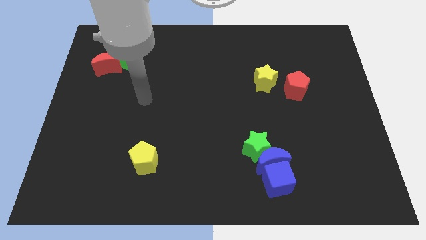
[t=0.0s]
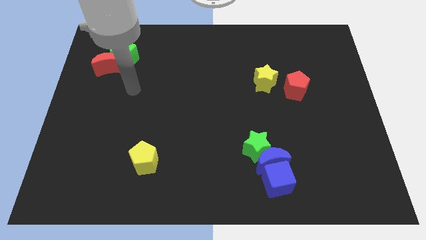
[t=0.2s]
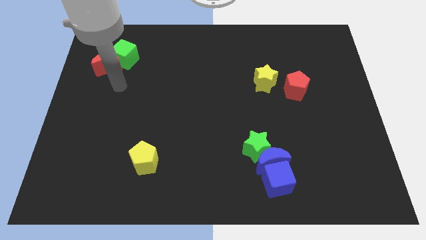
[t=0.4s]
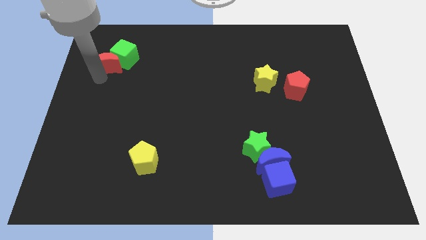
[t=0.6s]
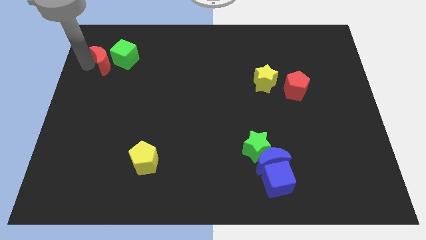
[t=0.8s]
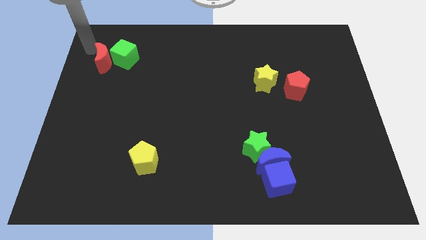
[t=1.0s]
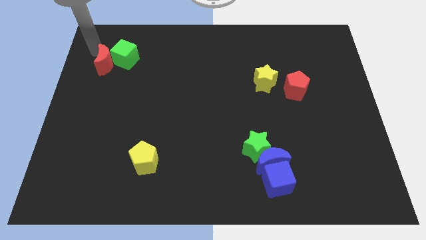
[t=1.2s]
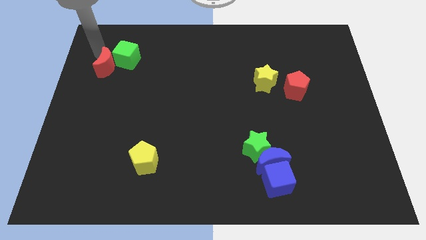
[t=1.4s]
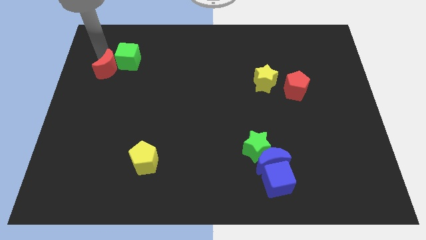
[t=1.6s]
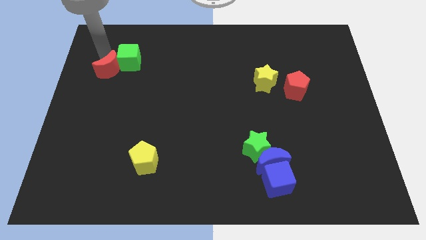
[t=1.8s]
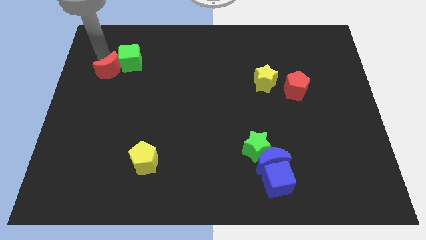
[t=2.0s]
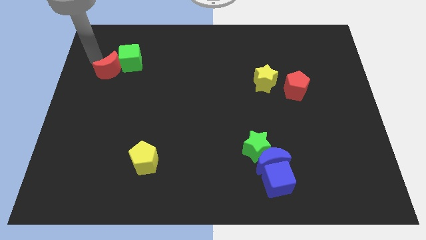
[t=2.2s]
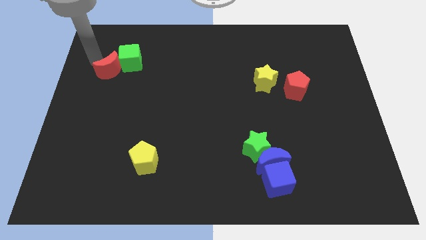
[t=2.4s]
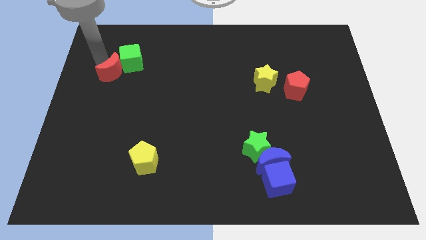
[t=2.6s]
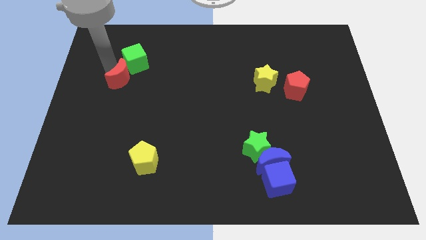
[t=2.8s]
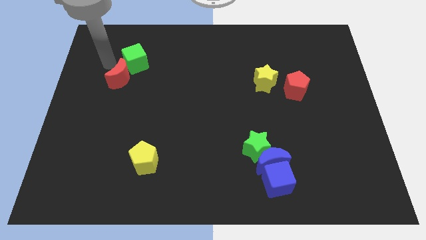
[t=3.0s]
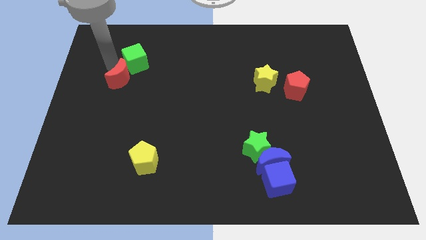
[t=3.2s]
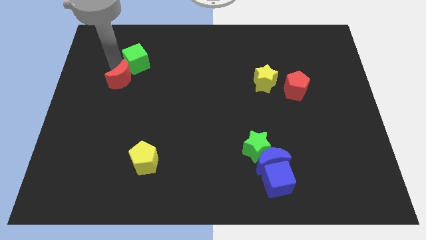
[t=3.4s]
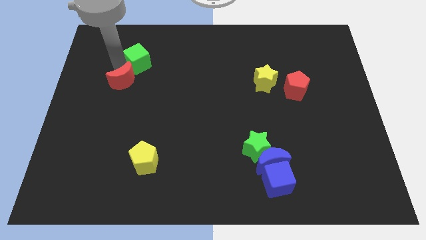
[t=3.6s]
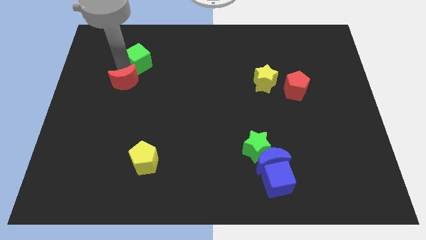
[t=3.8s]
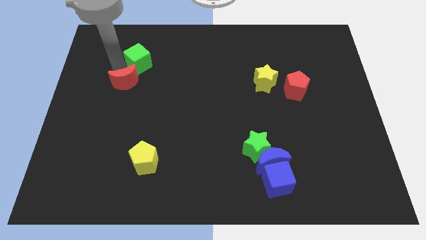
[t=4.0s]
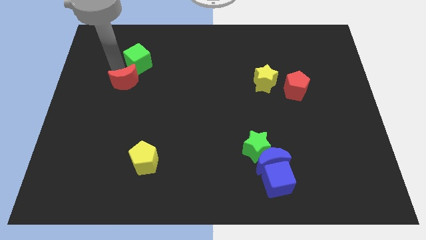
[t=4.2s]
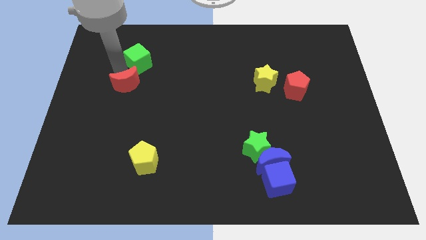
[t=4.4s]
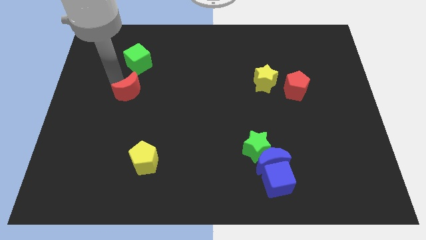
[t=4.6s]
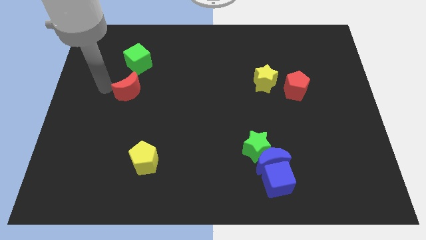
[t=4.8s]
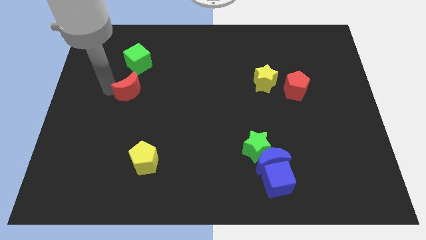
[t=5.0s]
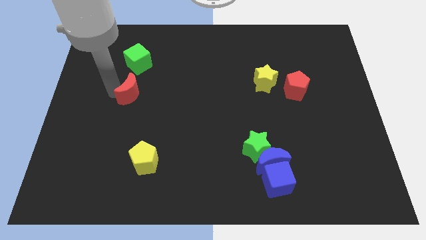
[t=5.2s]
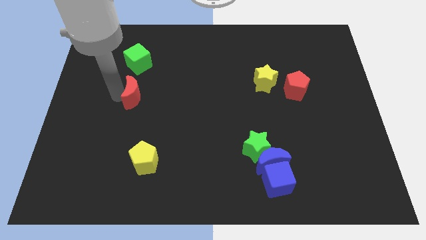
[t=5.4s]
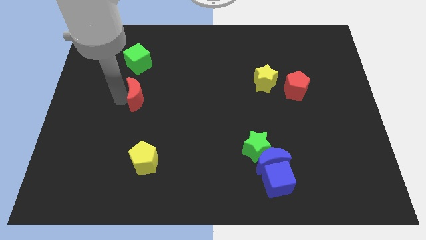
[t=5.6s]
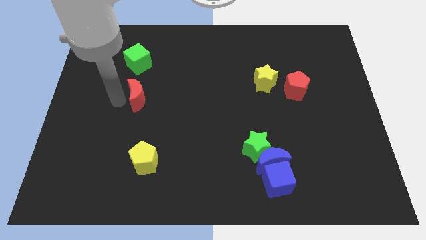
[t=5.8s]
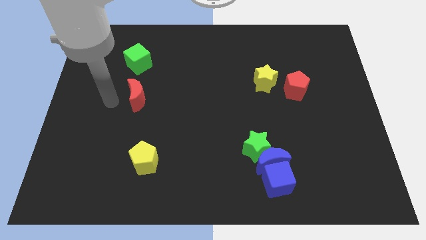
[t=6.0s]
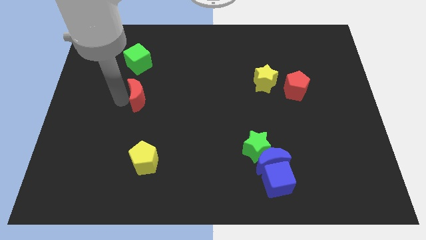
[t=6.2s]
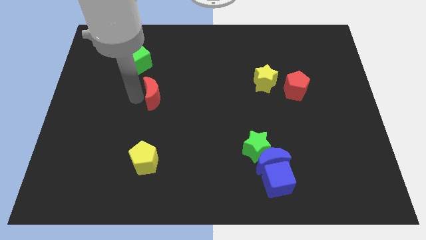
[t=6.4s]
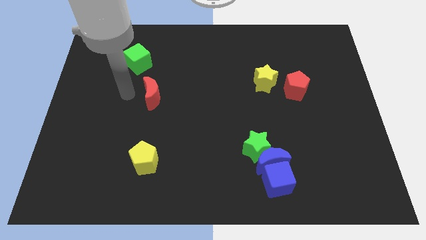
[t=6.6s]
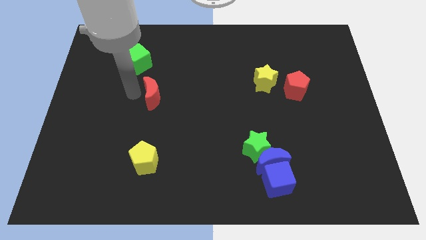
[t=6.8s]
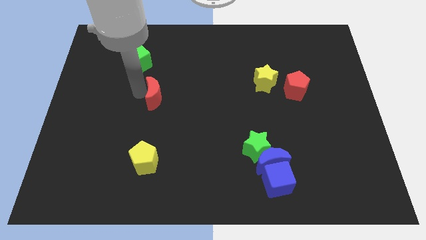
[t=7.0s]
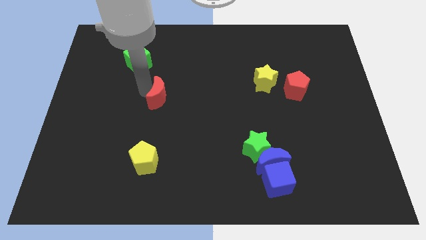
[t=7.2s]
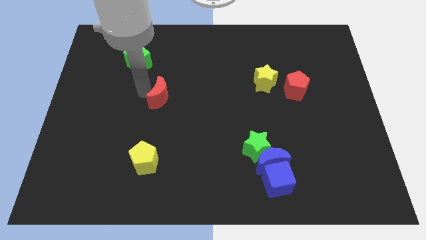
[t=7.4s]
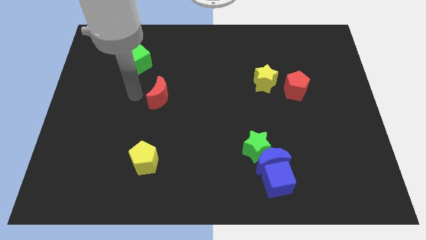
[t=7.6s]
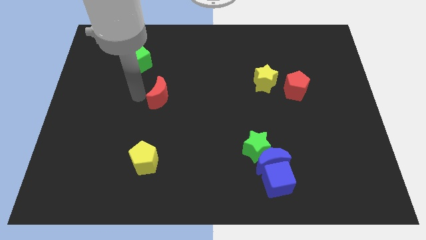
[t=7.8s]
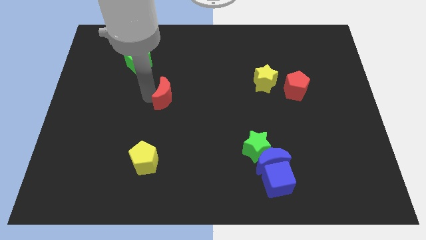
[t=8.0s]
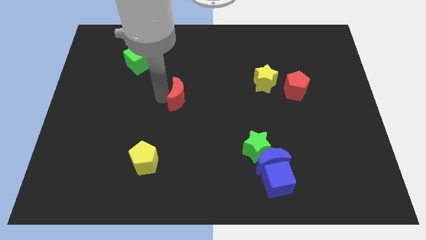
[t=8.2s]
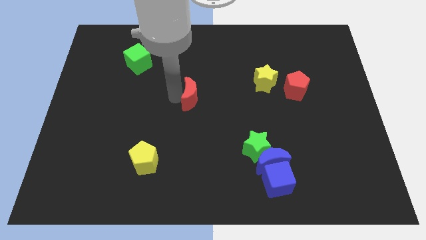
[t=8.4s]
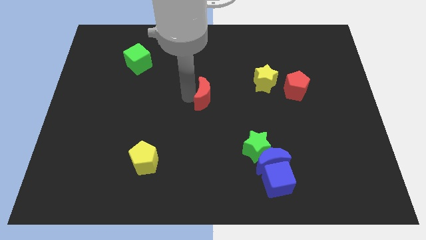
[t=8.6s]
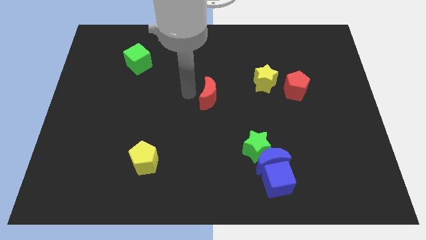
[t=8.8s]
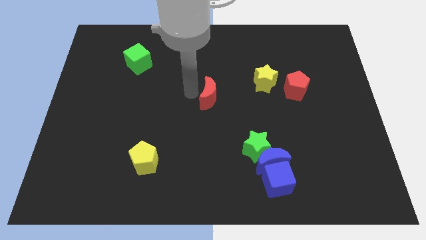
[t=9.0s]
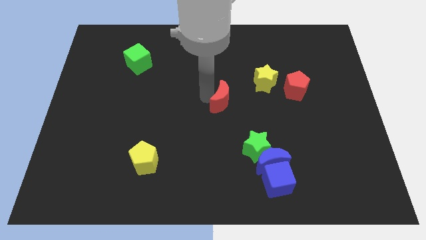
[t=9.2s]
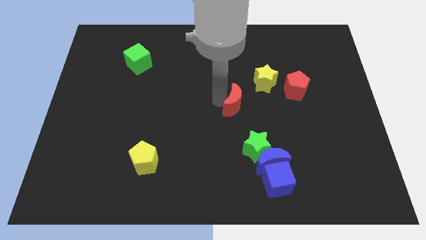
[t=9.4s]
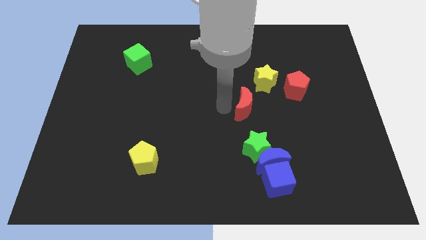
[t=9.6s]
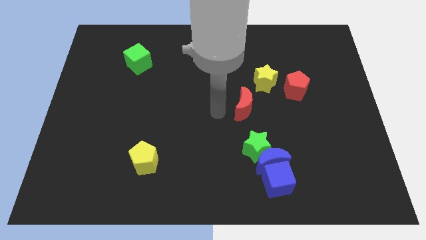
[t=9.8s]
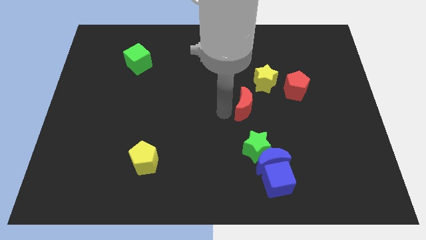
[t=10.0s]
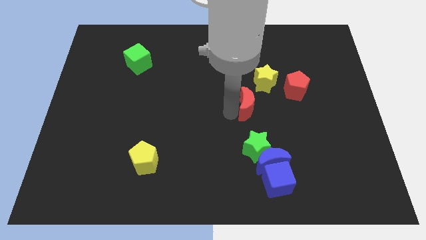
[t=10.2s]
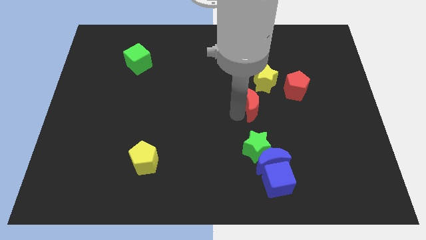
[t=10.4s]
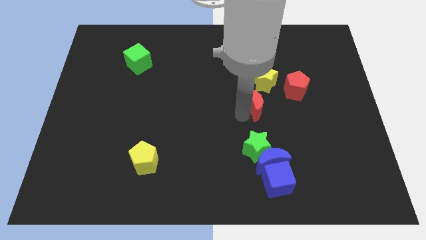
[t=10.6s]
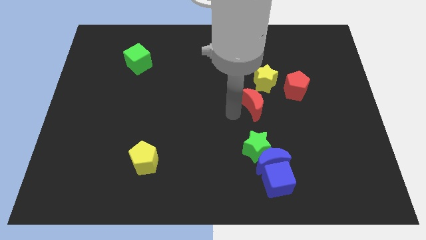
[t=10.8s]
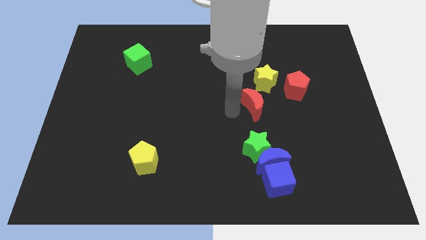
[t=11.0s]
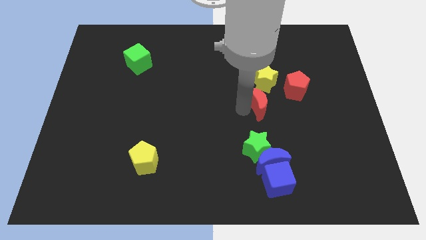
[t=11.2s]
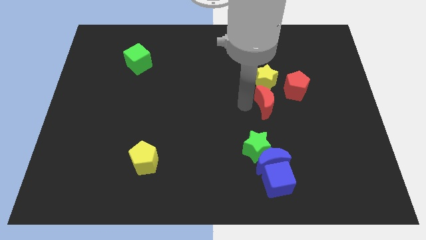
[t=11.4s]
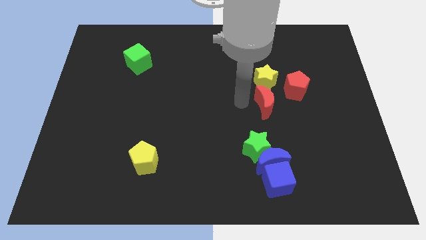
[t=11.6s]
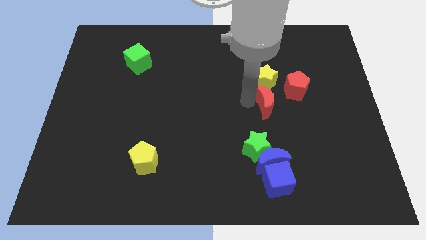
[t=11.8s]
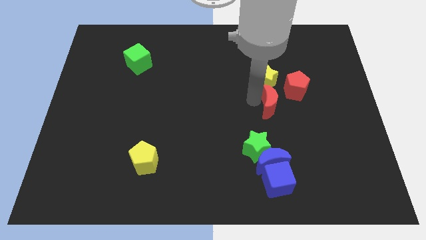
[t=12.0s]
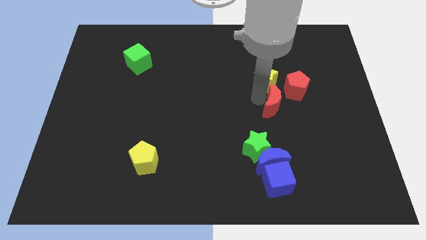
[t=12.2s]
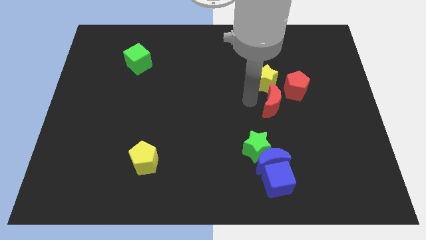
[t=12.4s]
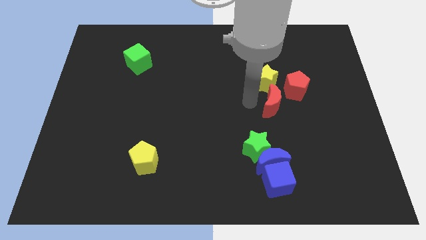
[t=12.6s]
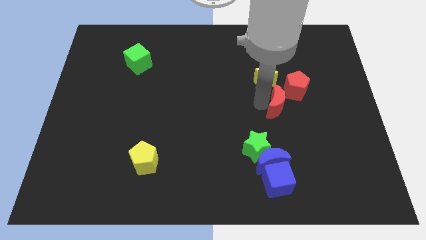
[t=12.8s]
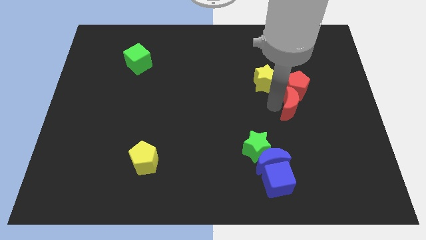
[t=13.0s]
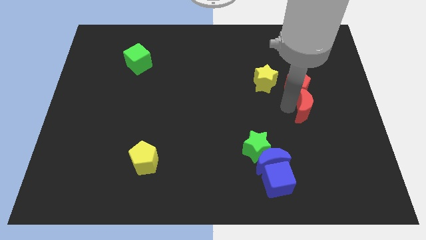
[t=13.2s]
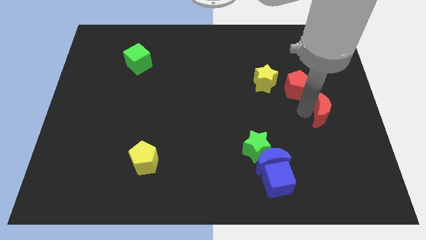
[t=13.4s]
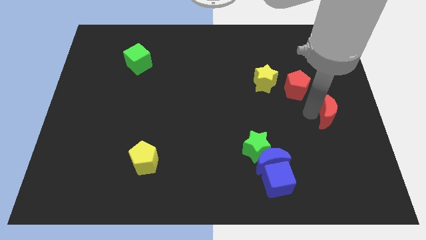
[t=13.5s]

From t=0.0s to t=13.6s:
put the red moon to the center right
